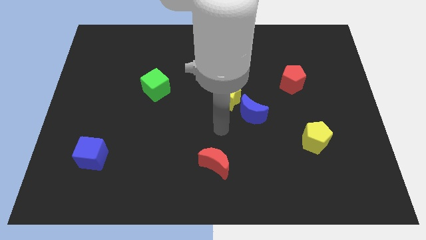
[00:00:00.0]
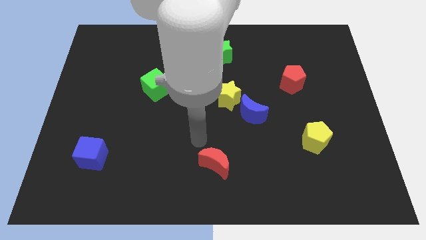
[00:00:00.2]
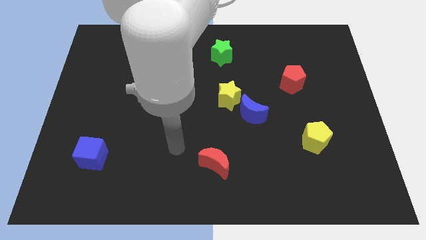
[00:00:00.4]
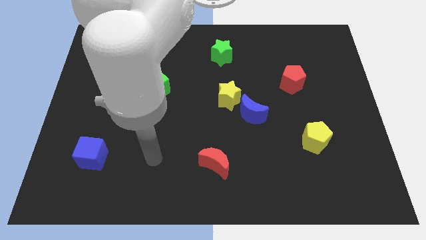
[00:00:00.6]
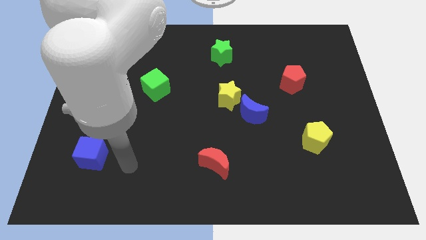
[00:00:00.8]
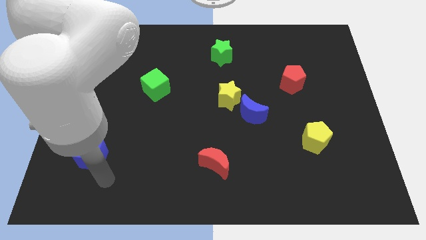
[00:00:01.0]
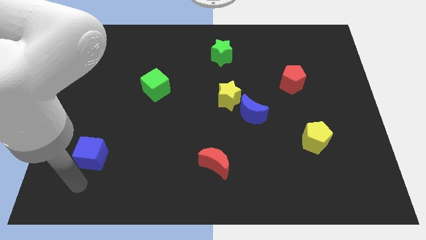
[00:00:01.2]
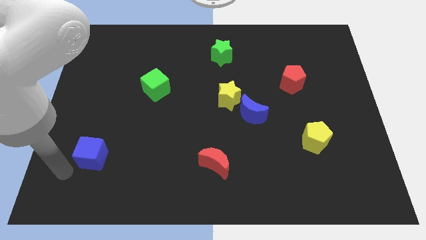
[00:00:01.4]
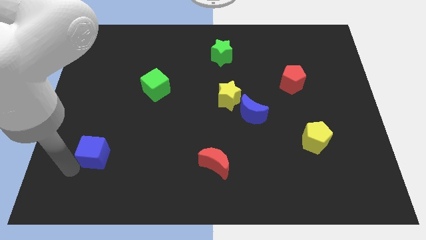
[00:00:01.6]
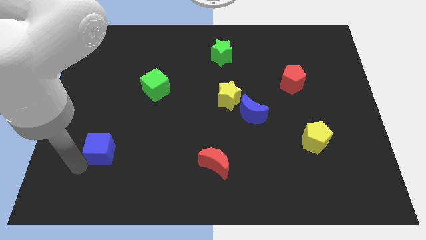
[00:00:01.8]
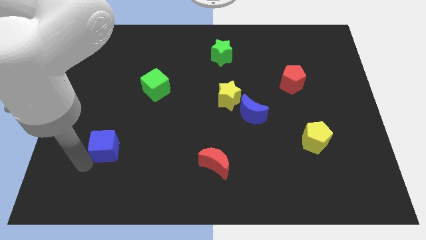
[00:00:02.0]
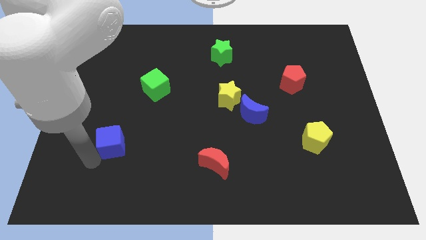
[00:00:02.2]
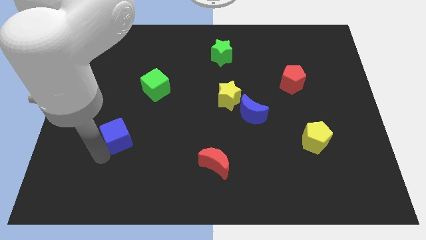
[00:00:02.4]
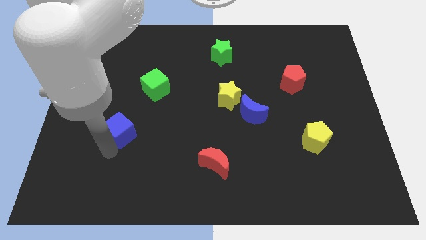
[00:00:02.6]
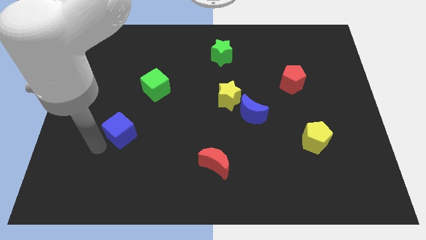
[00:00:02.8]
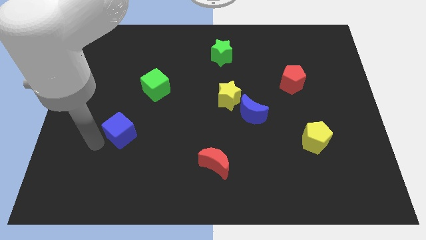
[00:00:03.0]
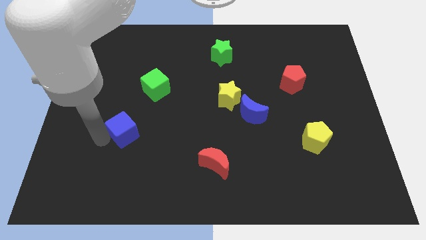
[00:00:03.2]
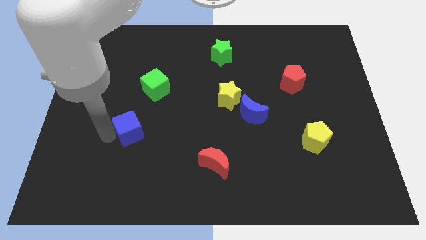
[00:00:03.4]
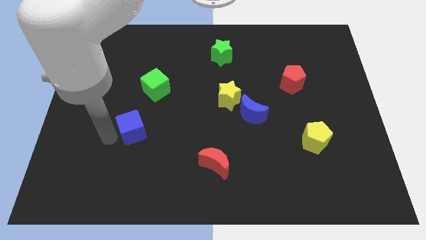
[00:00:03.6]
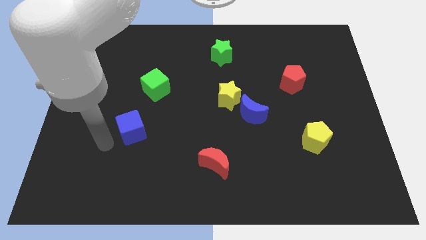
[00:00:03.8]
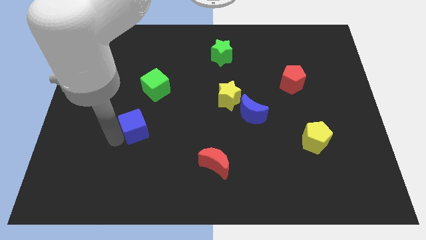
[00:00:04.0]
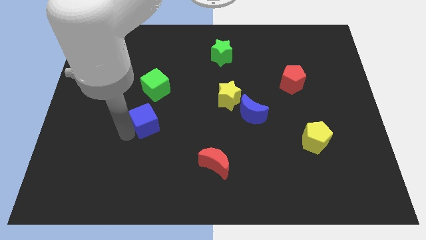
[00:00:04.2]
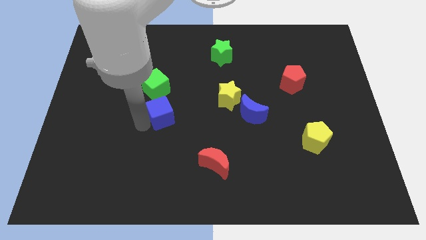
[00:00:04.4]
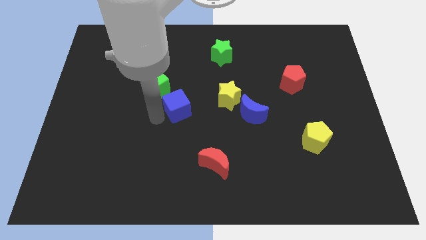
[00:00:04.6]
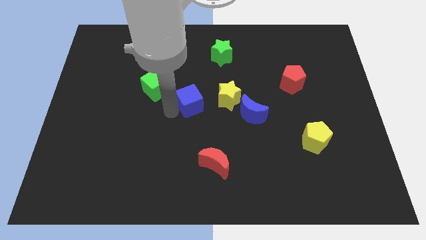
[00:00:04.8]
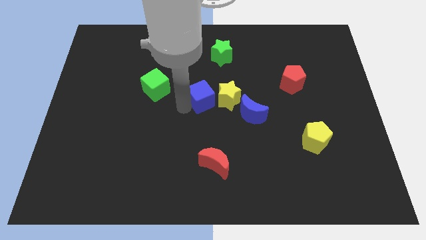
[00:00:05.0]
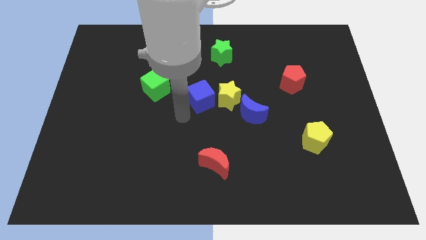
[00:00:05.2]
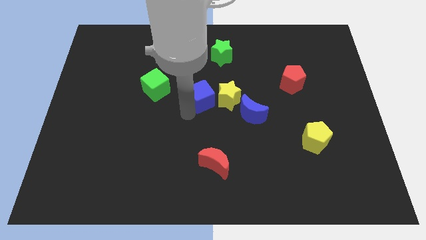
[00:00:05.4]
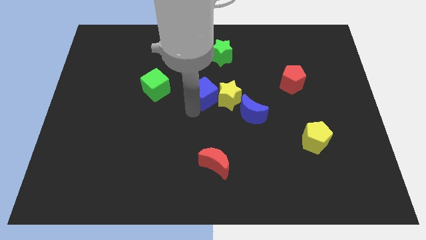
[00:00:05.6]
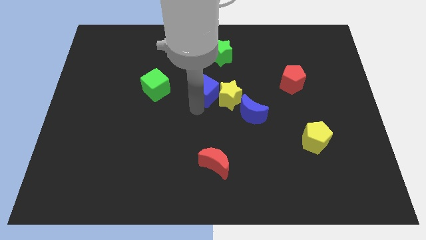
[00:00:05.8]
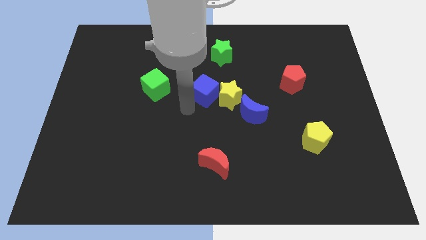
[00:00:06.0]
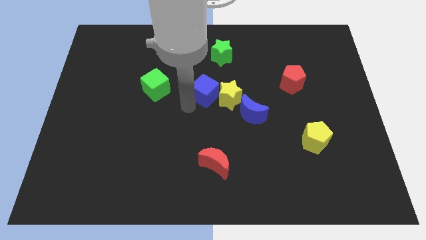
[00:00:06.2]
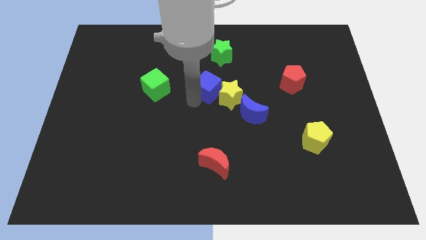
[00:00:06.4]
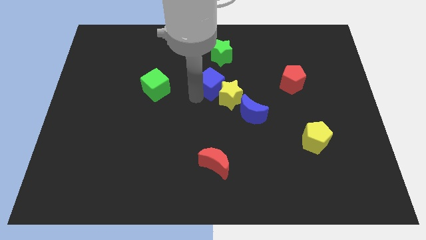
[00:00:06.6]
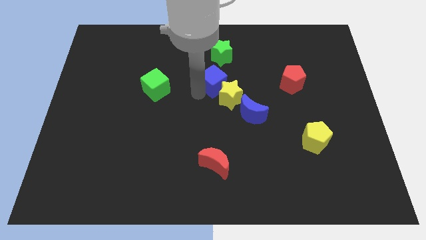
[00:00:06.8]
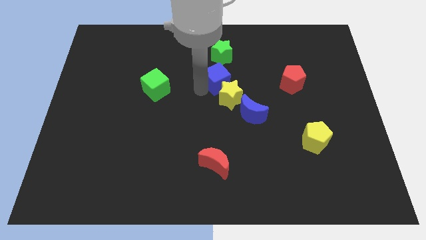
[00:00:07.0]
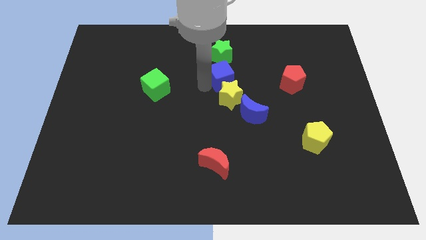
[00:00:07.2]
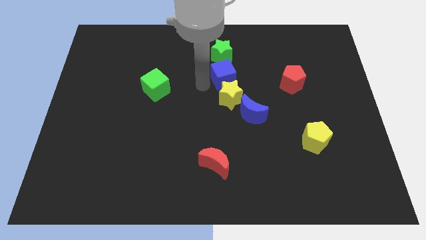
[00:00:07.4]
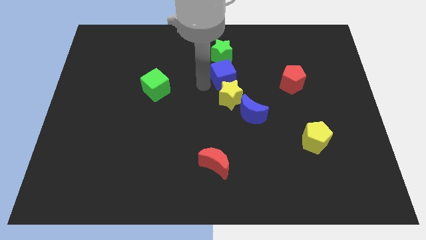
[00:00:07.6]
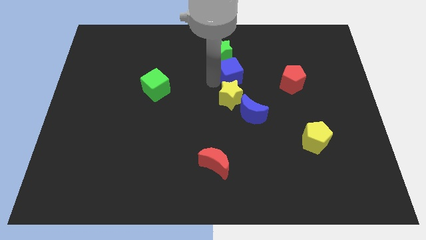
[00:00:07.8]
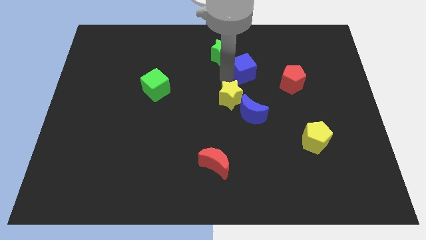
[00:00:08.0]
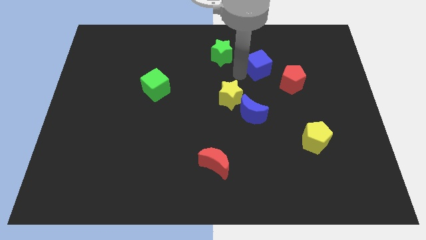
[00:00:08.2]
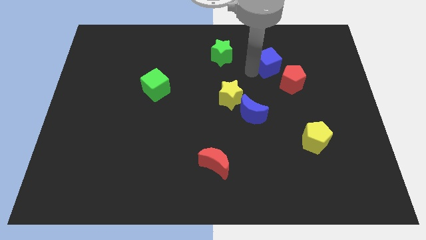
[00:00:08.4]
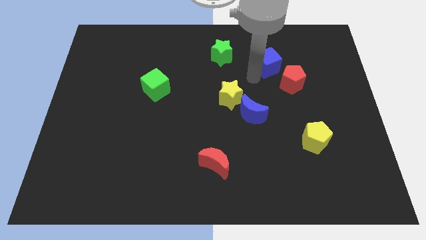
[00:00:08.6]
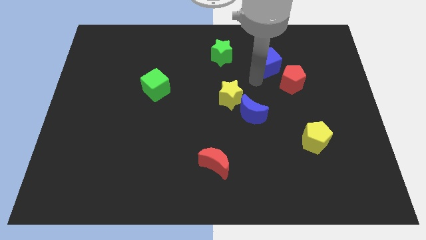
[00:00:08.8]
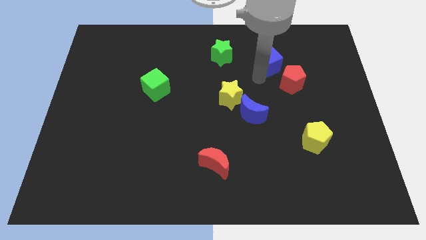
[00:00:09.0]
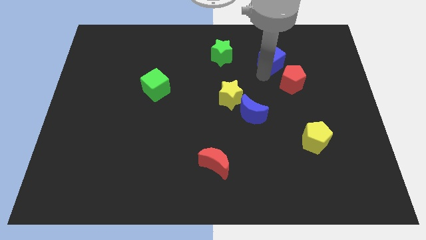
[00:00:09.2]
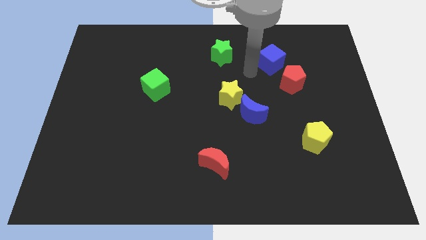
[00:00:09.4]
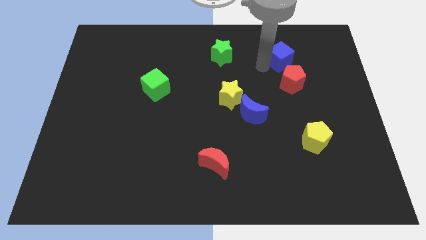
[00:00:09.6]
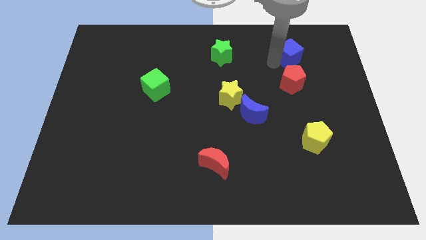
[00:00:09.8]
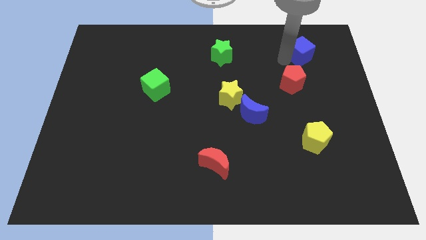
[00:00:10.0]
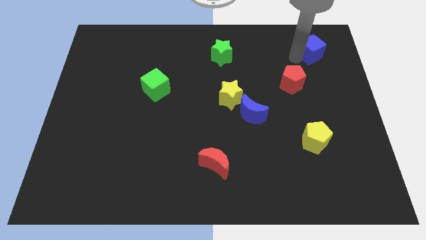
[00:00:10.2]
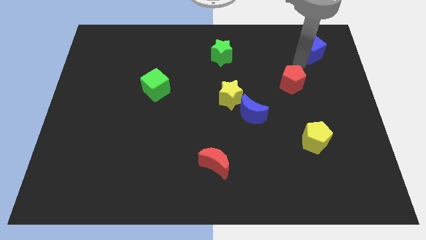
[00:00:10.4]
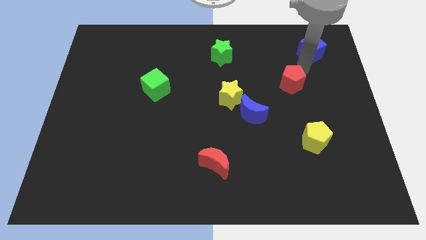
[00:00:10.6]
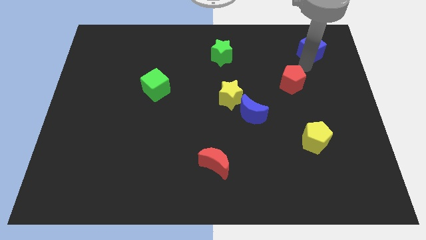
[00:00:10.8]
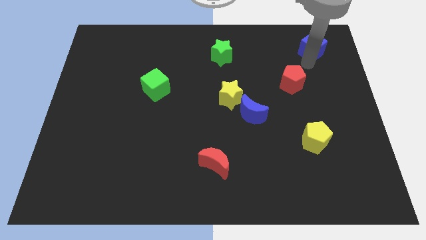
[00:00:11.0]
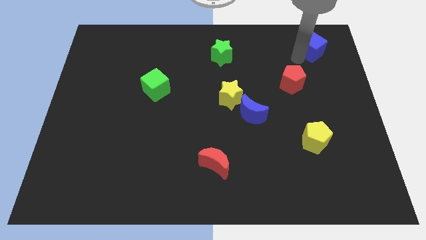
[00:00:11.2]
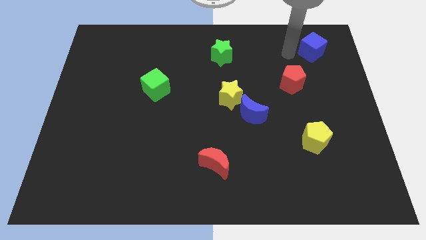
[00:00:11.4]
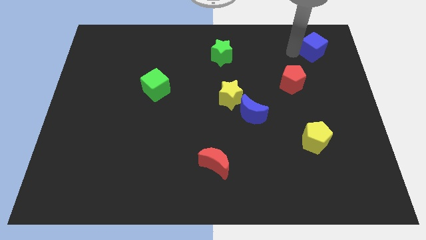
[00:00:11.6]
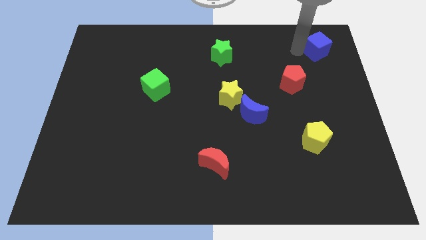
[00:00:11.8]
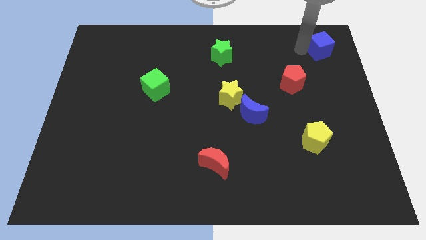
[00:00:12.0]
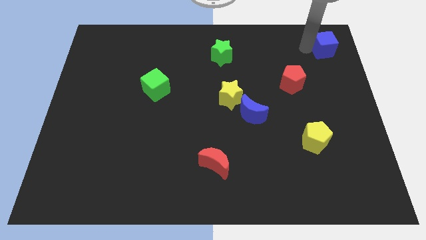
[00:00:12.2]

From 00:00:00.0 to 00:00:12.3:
push the blue cube to the top right of the board
